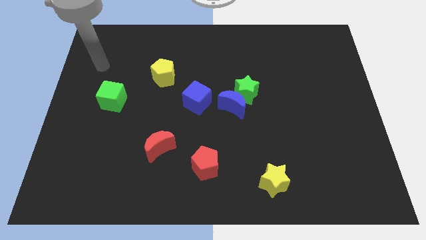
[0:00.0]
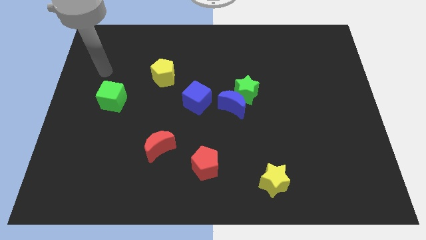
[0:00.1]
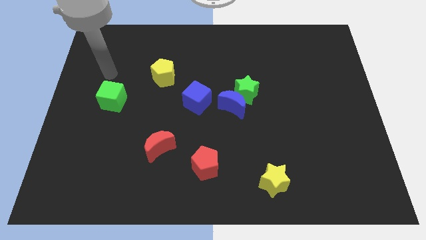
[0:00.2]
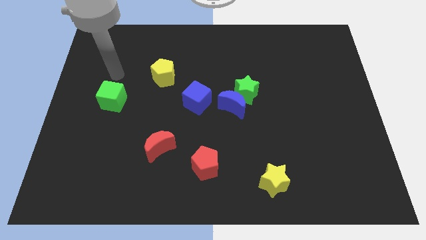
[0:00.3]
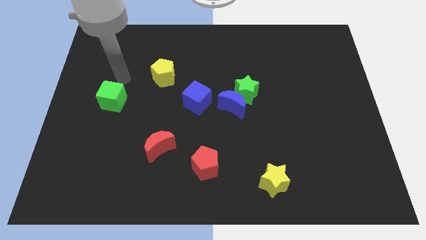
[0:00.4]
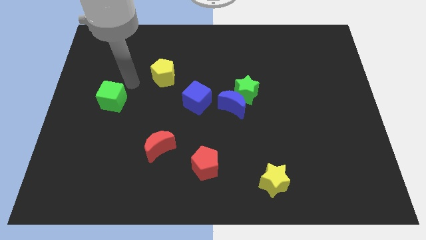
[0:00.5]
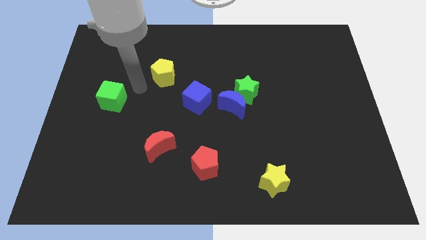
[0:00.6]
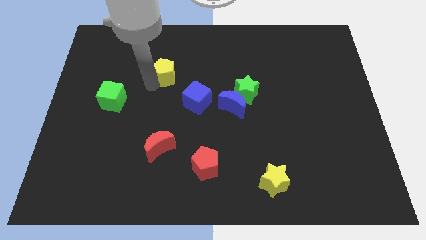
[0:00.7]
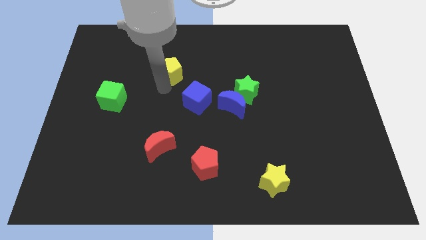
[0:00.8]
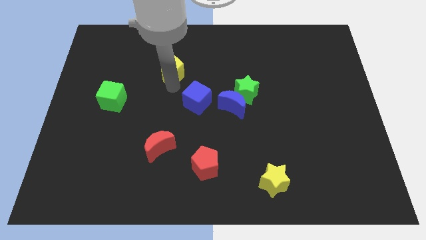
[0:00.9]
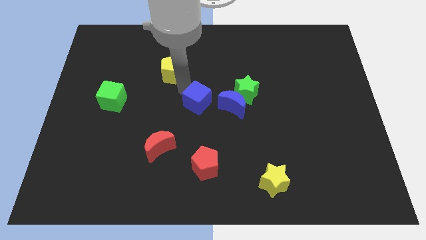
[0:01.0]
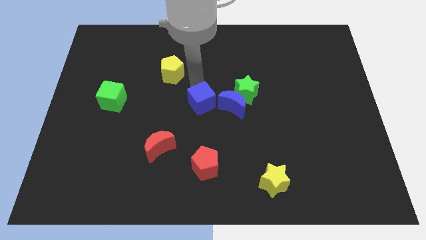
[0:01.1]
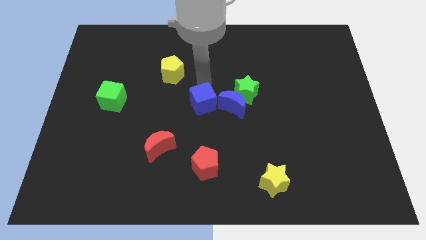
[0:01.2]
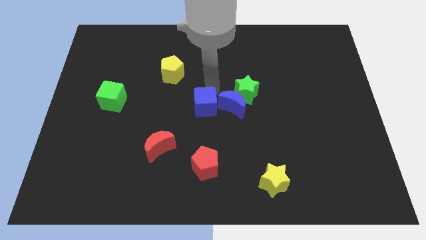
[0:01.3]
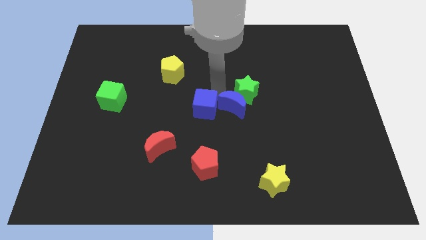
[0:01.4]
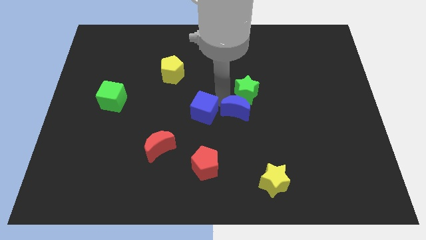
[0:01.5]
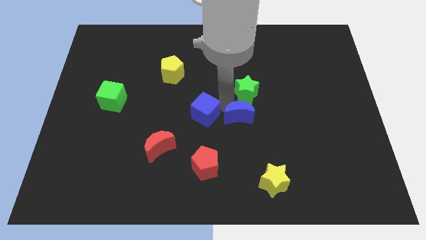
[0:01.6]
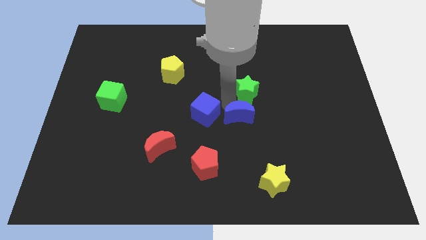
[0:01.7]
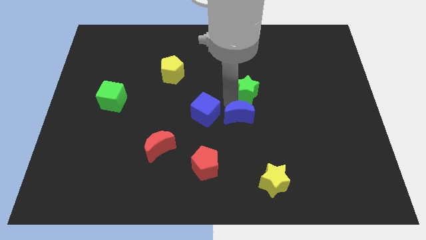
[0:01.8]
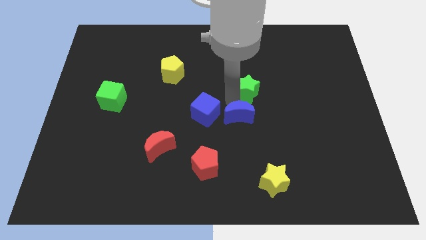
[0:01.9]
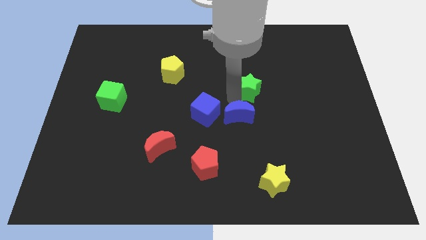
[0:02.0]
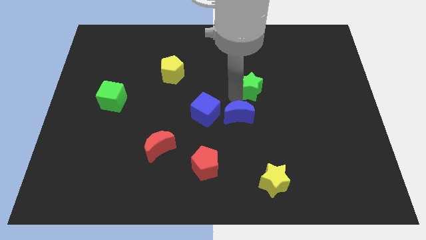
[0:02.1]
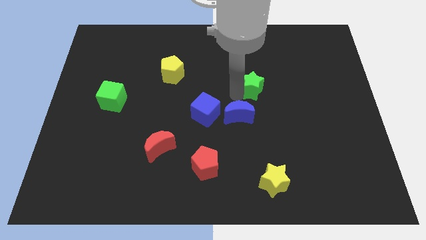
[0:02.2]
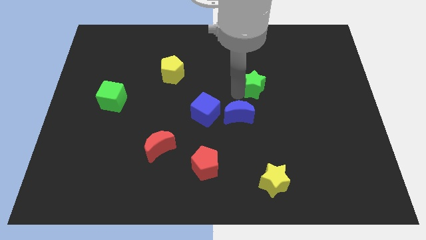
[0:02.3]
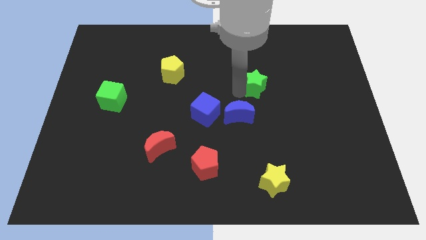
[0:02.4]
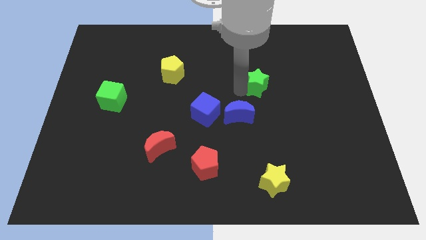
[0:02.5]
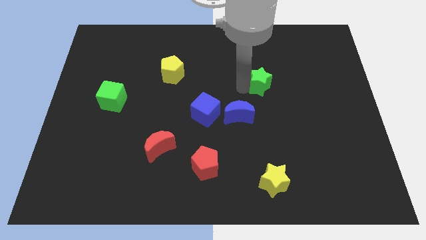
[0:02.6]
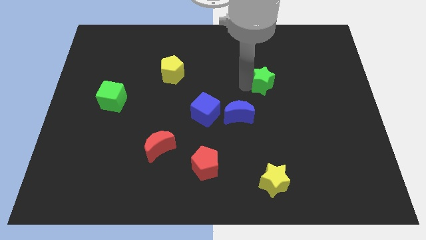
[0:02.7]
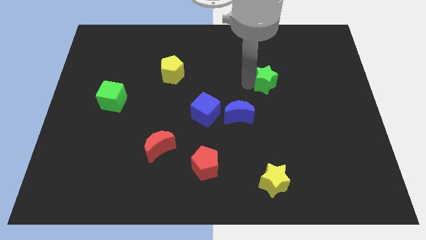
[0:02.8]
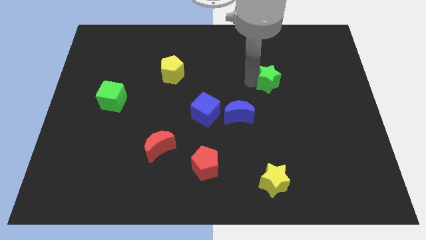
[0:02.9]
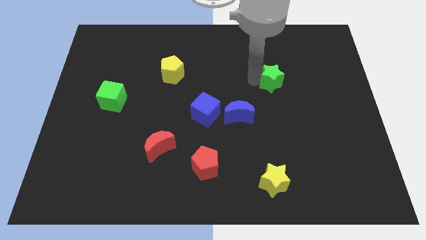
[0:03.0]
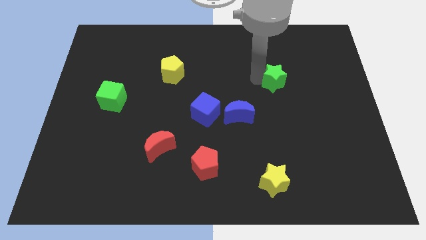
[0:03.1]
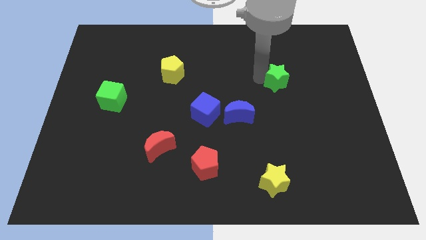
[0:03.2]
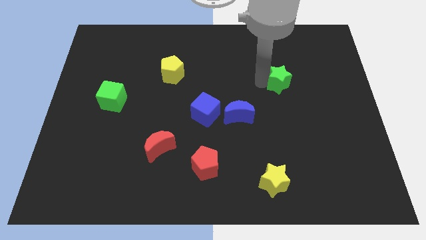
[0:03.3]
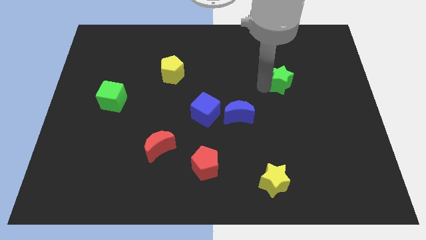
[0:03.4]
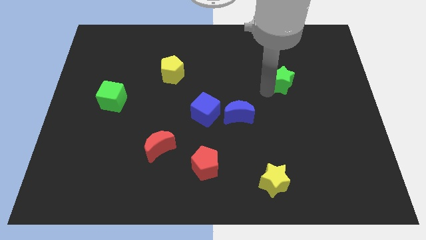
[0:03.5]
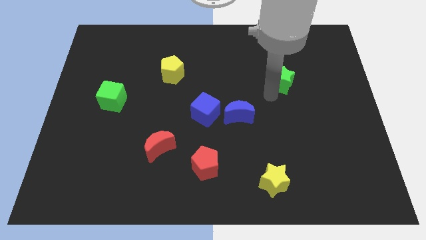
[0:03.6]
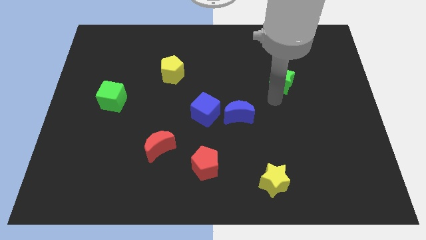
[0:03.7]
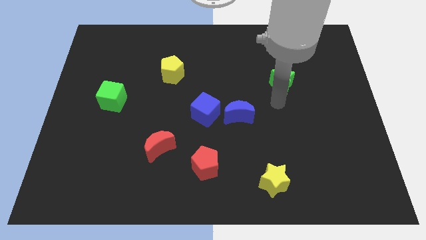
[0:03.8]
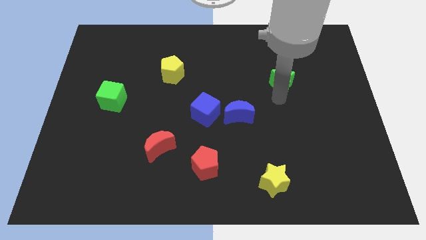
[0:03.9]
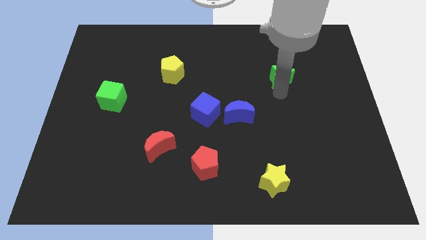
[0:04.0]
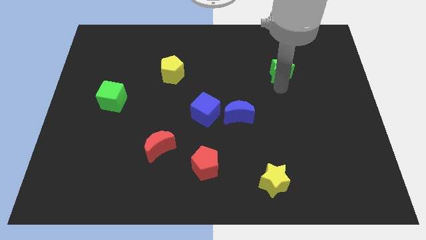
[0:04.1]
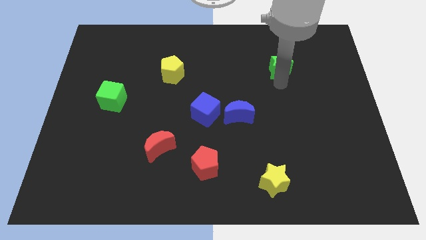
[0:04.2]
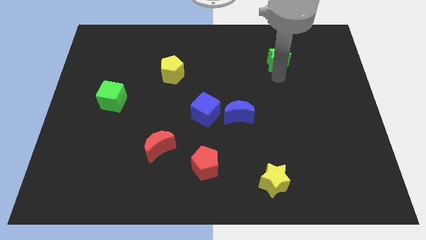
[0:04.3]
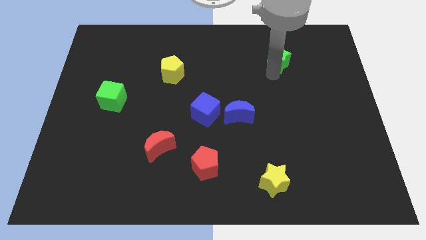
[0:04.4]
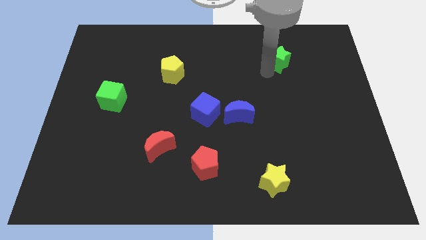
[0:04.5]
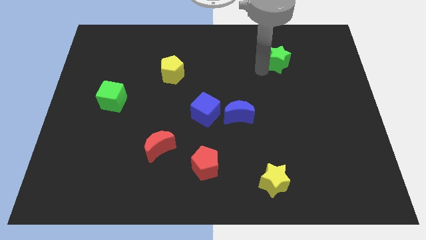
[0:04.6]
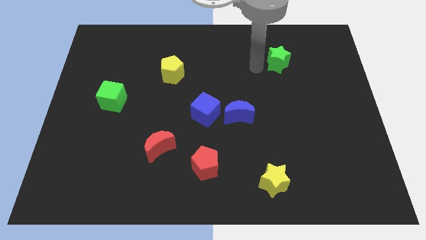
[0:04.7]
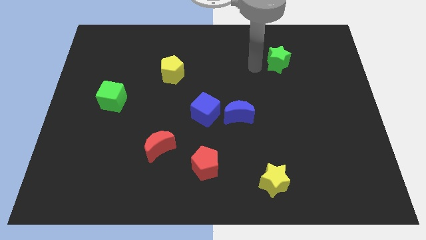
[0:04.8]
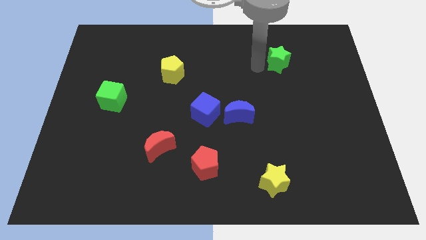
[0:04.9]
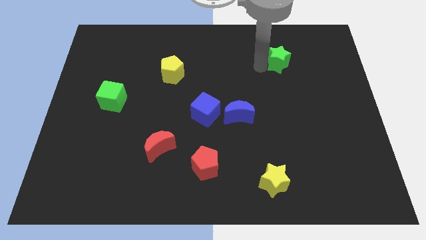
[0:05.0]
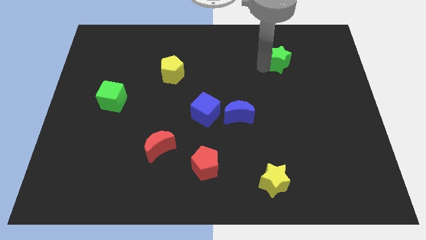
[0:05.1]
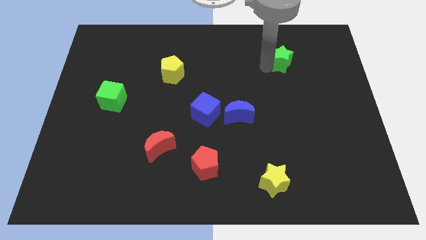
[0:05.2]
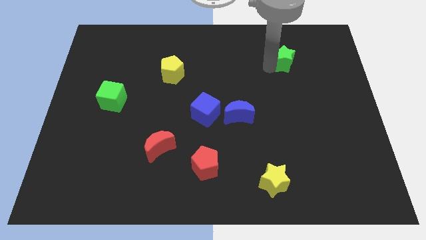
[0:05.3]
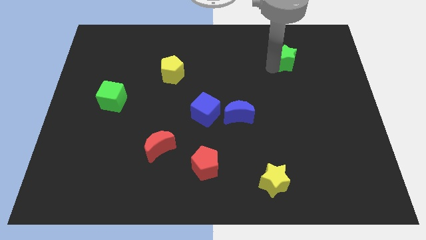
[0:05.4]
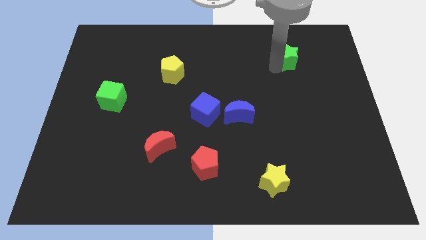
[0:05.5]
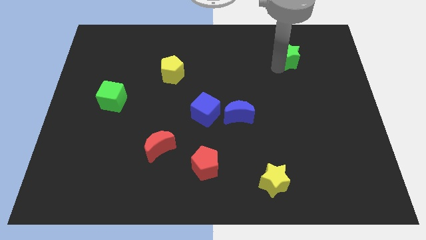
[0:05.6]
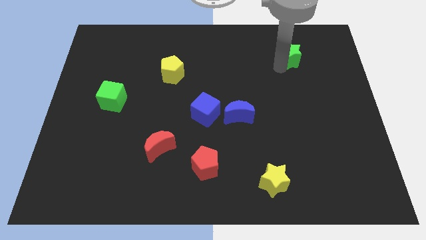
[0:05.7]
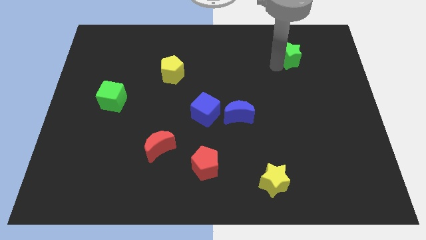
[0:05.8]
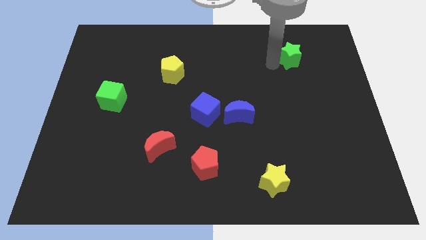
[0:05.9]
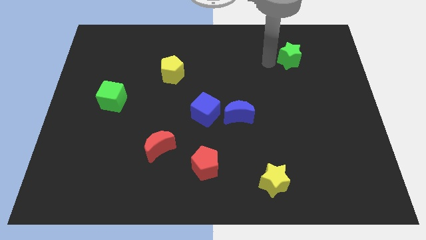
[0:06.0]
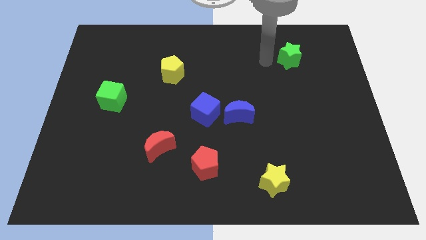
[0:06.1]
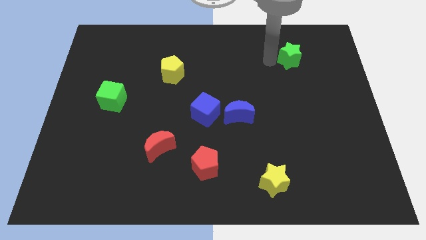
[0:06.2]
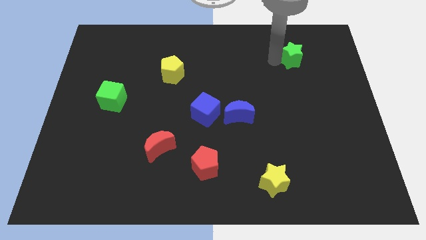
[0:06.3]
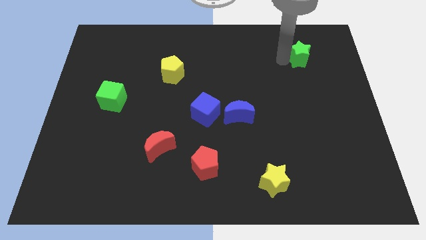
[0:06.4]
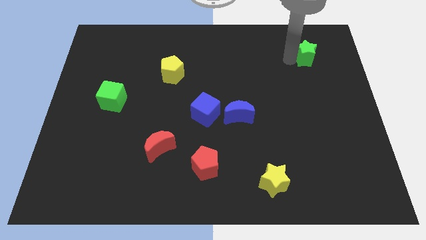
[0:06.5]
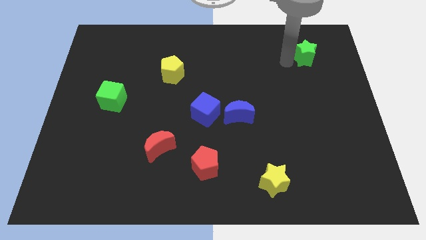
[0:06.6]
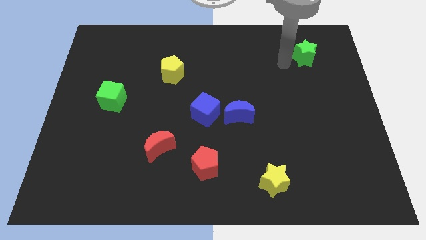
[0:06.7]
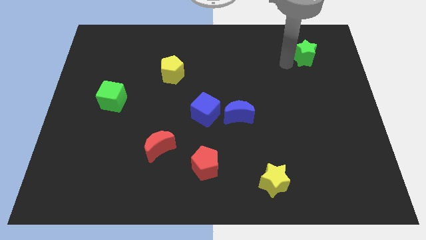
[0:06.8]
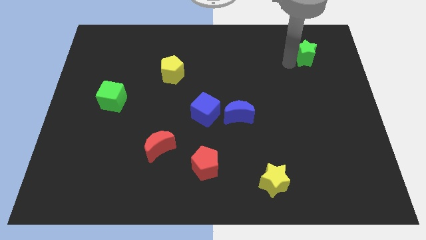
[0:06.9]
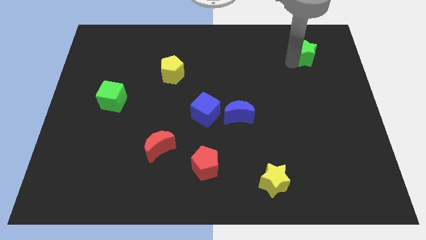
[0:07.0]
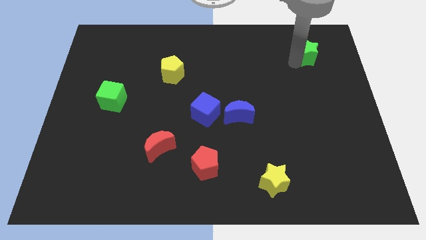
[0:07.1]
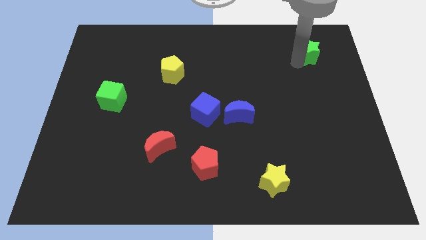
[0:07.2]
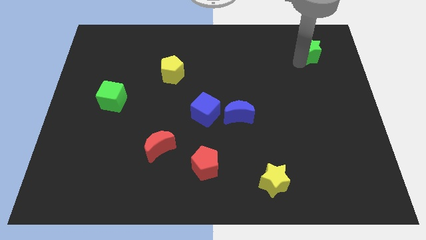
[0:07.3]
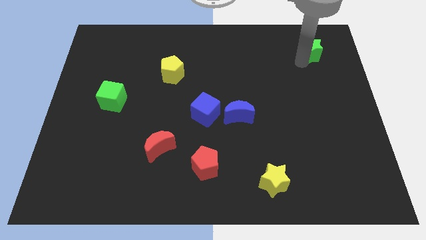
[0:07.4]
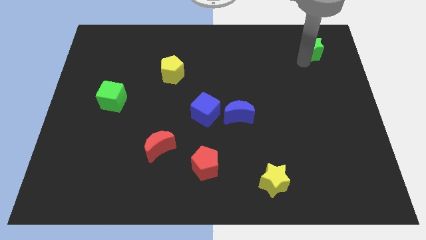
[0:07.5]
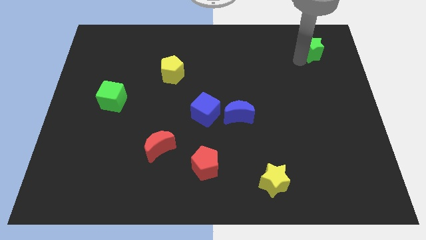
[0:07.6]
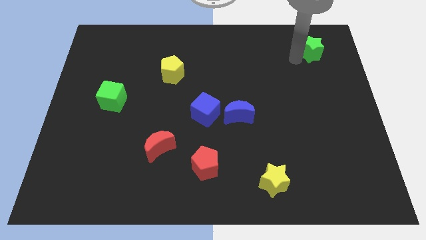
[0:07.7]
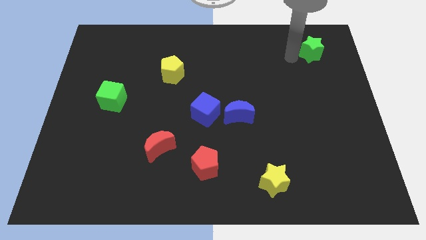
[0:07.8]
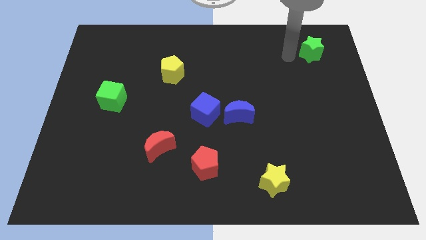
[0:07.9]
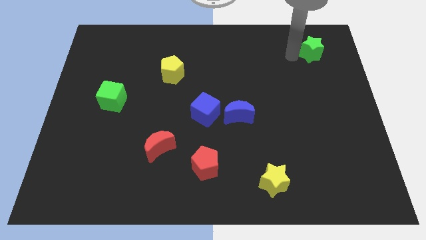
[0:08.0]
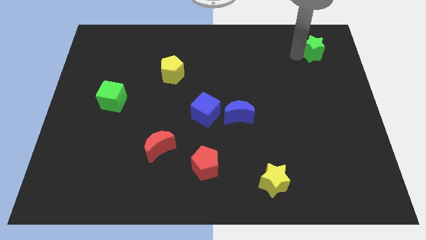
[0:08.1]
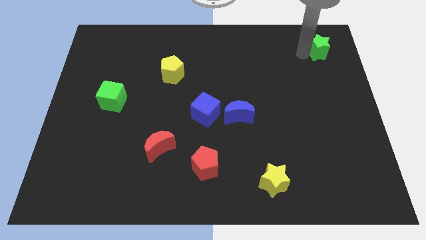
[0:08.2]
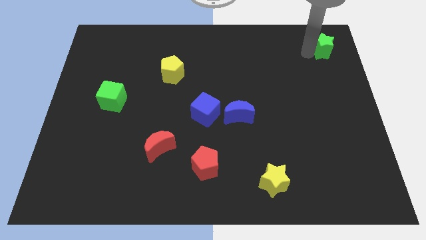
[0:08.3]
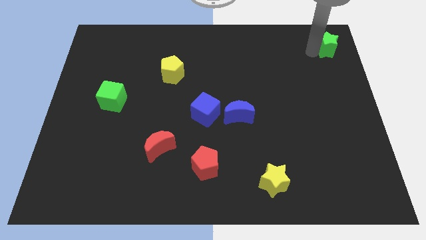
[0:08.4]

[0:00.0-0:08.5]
push the green star to the upper right corner
